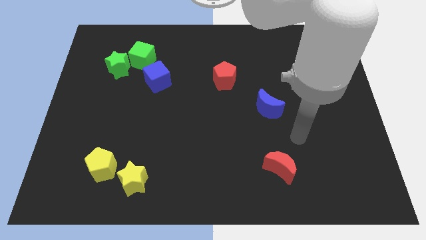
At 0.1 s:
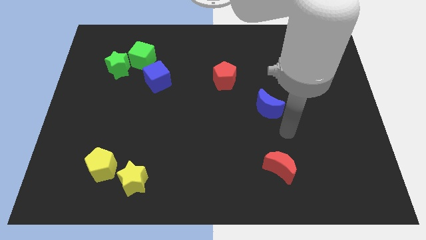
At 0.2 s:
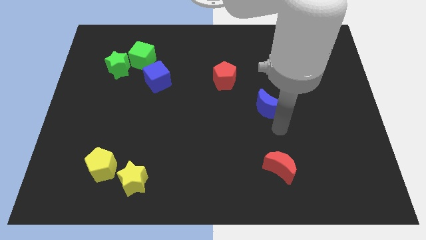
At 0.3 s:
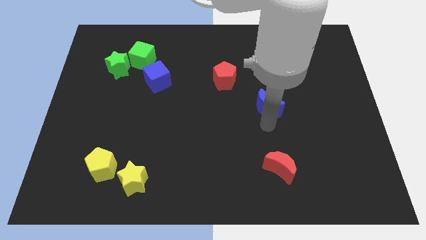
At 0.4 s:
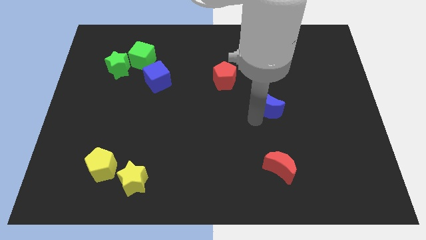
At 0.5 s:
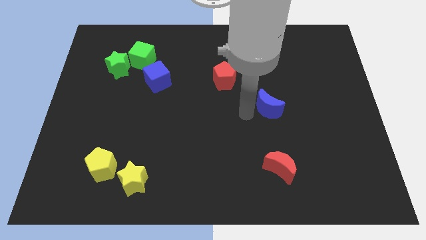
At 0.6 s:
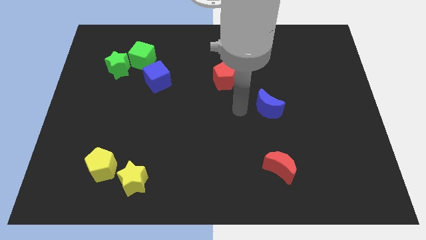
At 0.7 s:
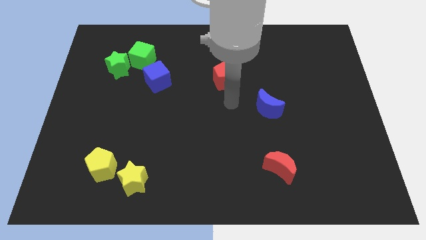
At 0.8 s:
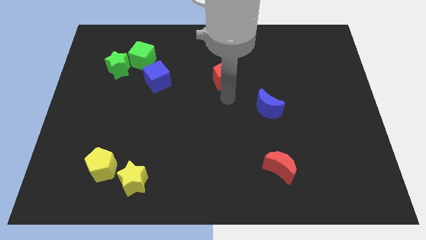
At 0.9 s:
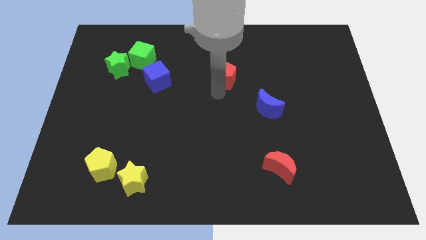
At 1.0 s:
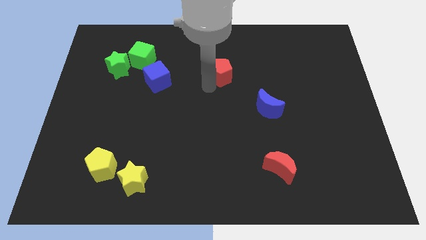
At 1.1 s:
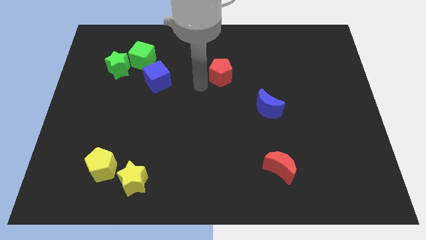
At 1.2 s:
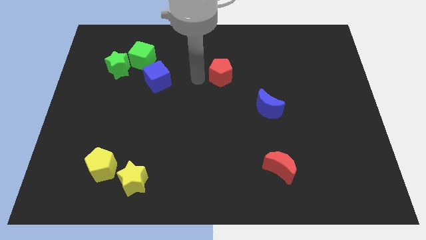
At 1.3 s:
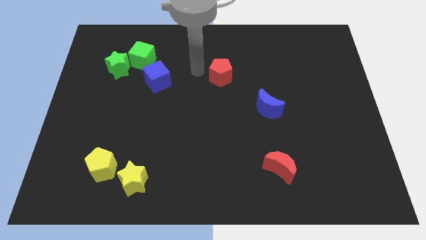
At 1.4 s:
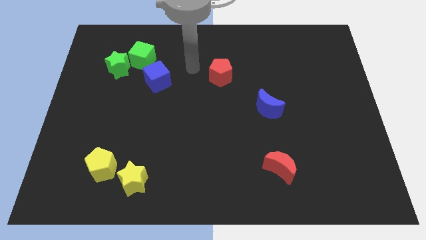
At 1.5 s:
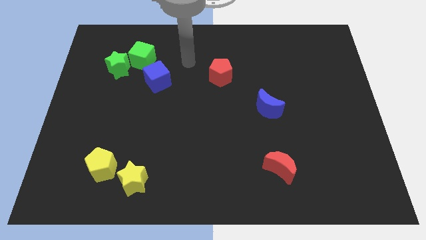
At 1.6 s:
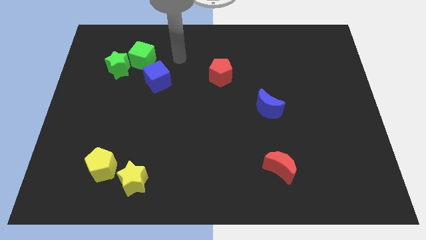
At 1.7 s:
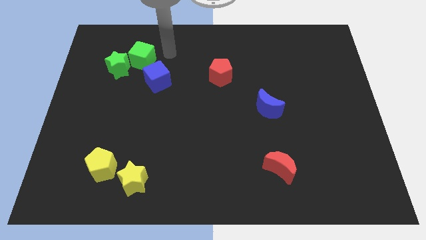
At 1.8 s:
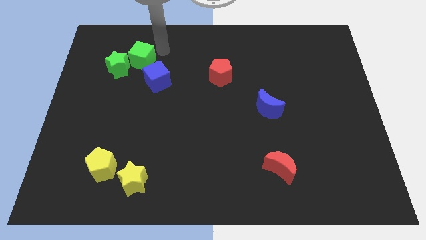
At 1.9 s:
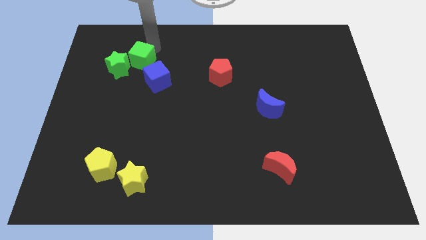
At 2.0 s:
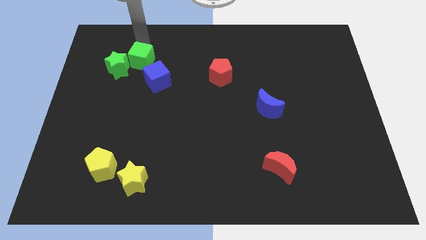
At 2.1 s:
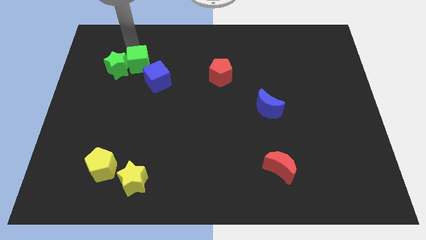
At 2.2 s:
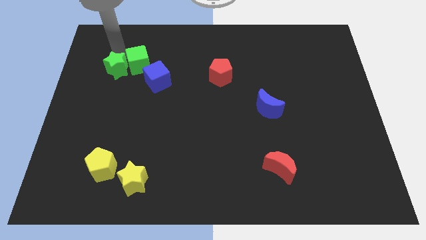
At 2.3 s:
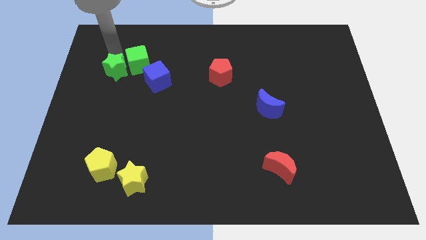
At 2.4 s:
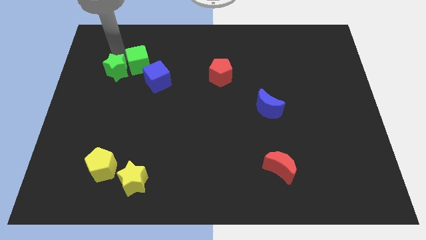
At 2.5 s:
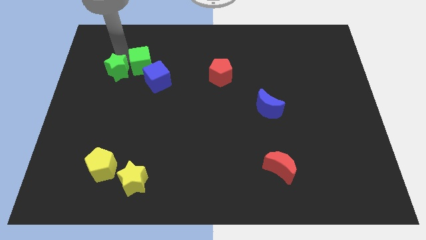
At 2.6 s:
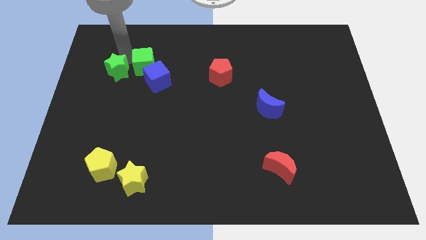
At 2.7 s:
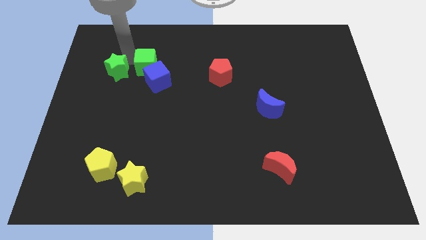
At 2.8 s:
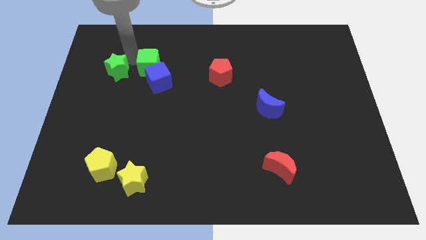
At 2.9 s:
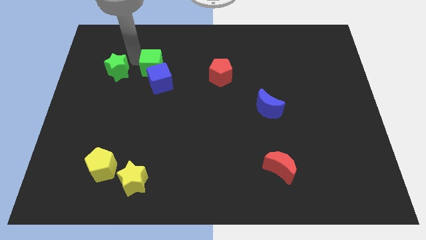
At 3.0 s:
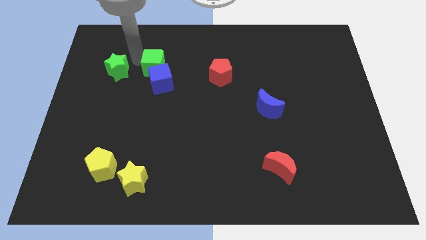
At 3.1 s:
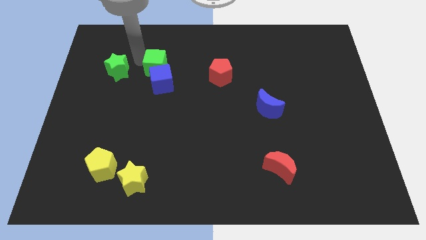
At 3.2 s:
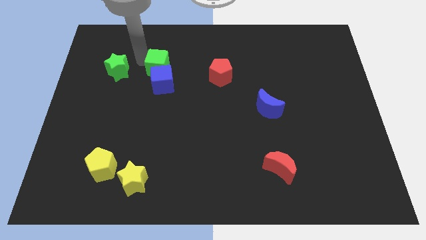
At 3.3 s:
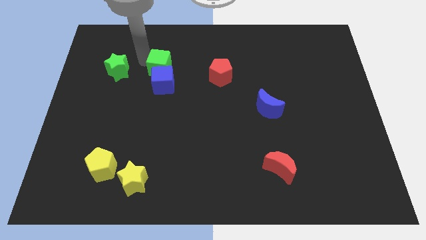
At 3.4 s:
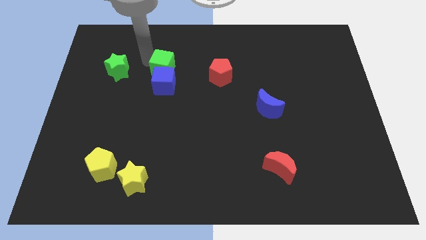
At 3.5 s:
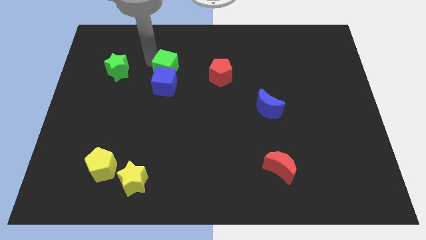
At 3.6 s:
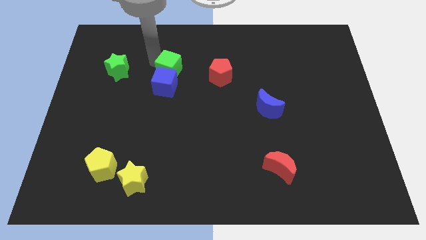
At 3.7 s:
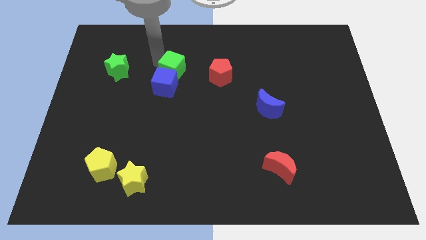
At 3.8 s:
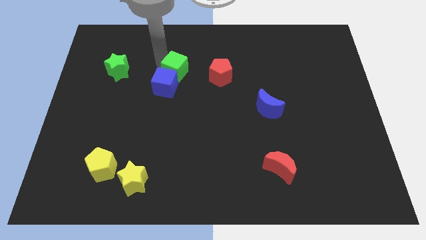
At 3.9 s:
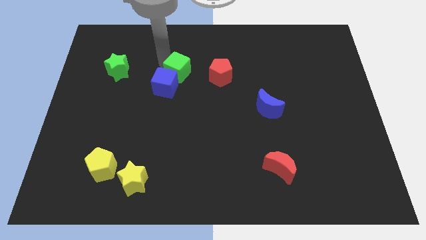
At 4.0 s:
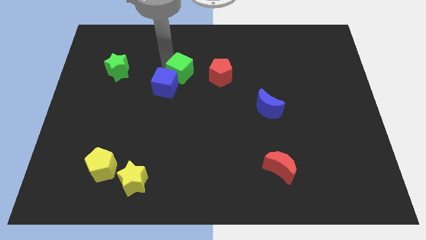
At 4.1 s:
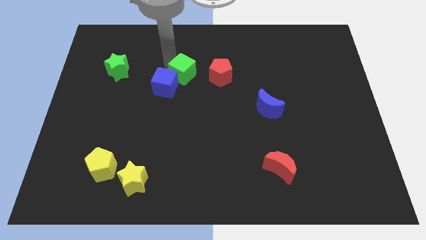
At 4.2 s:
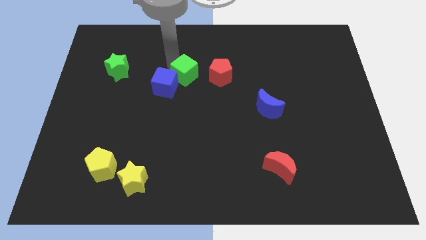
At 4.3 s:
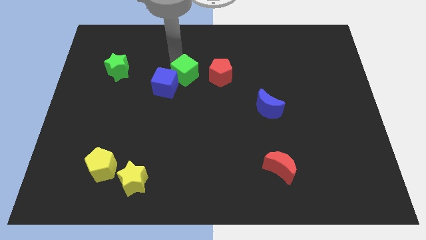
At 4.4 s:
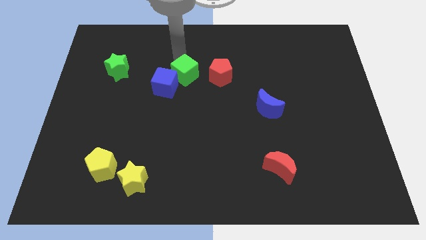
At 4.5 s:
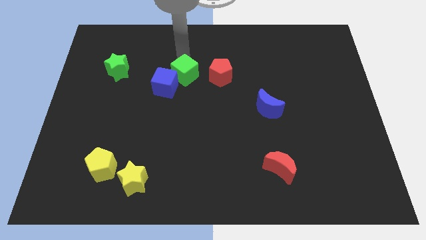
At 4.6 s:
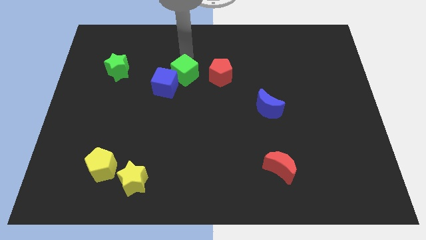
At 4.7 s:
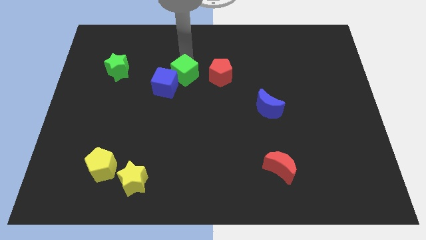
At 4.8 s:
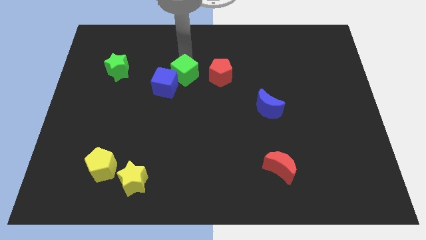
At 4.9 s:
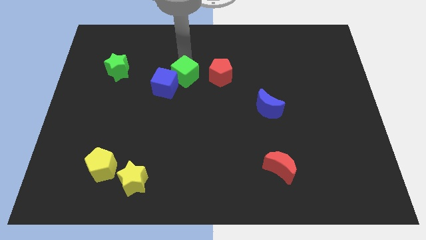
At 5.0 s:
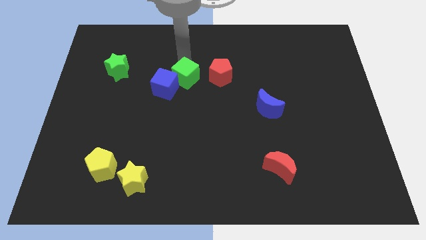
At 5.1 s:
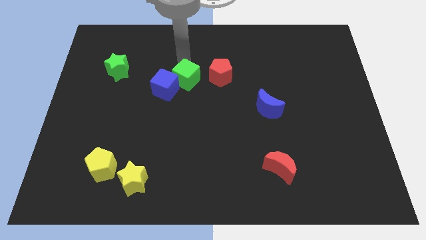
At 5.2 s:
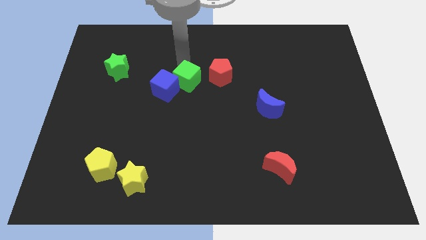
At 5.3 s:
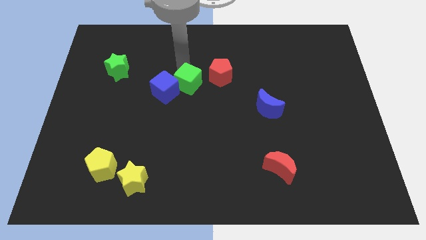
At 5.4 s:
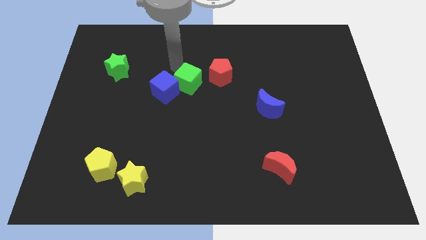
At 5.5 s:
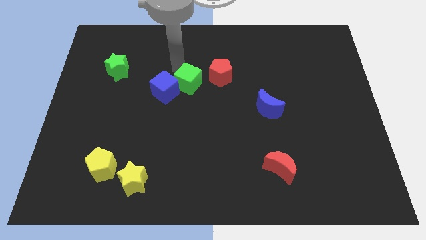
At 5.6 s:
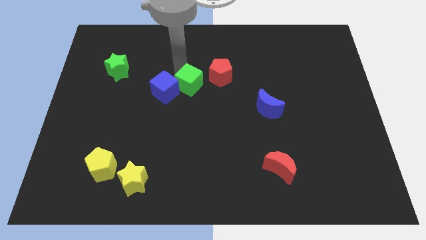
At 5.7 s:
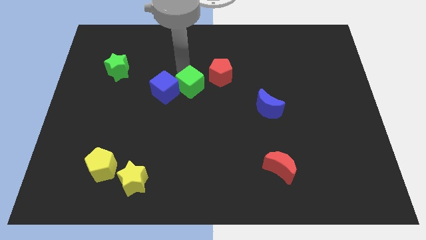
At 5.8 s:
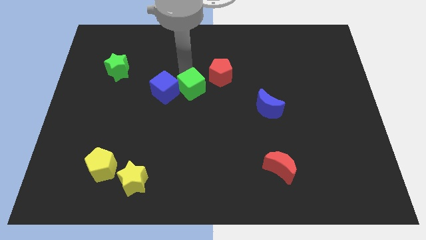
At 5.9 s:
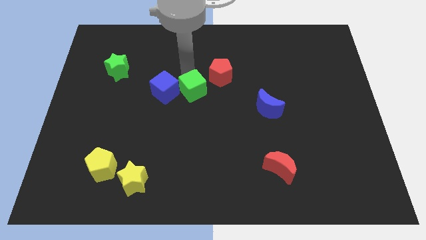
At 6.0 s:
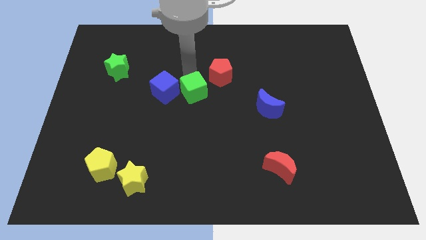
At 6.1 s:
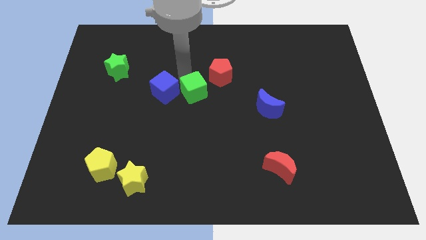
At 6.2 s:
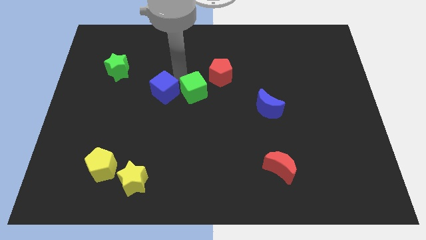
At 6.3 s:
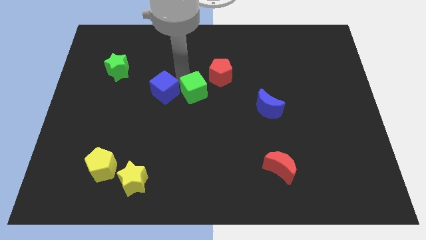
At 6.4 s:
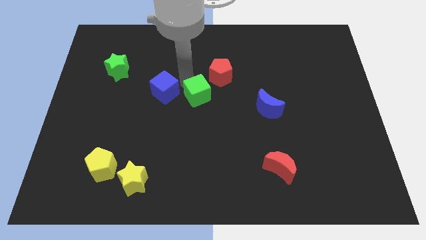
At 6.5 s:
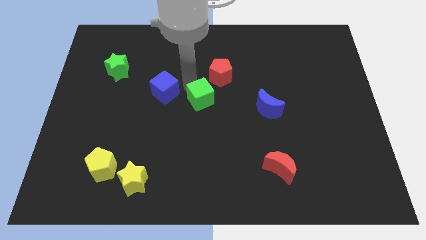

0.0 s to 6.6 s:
slide the green cube down and right

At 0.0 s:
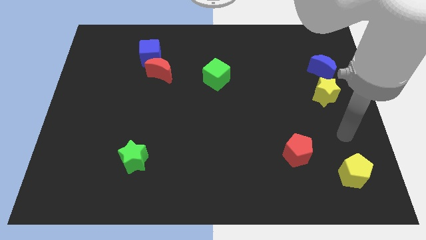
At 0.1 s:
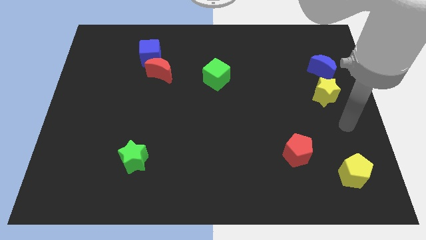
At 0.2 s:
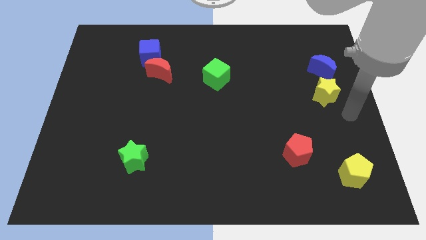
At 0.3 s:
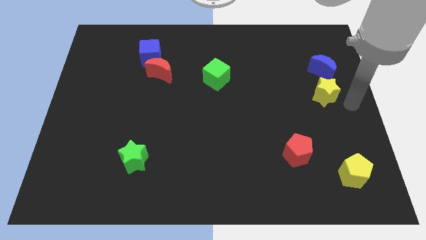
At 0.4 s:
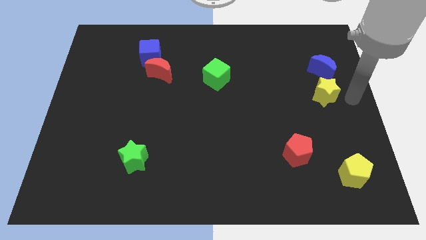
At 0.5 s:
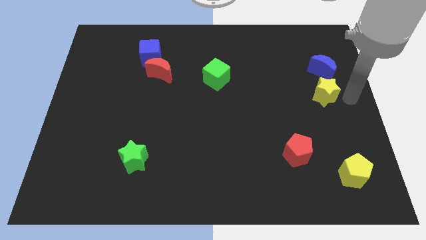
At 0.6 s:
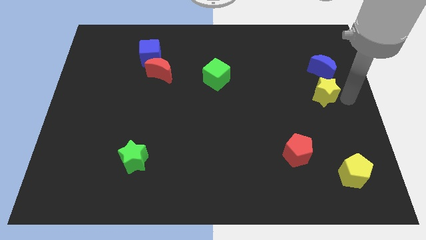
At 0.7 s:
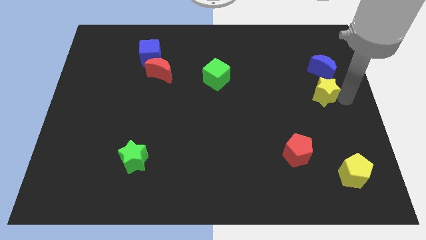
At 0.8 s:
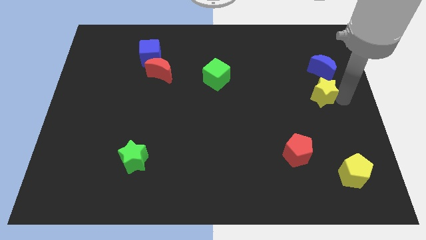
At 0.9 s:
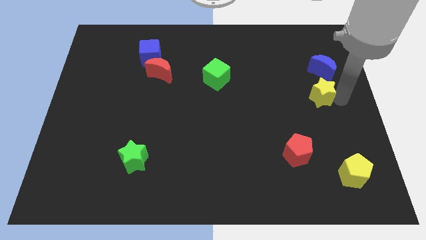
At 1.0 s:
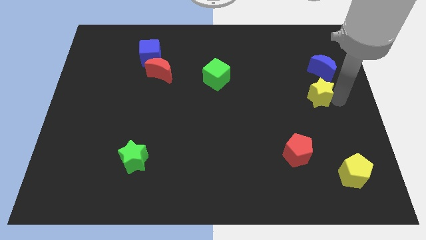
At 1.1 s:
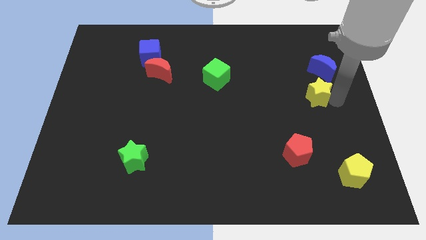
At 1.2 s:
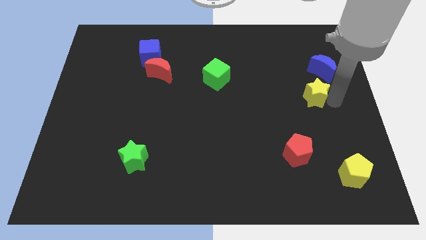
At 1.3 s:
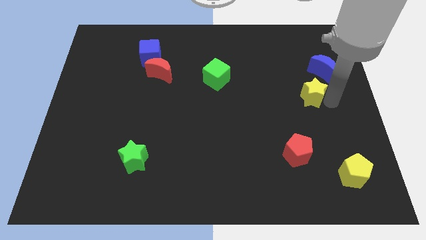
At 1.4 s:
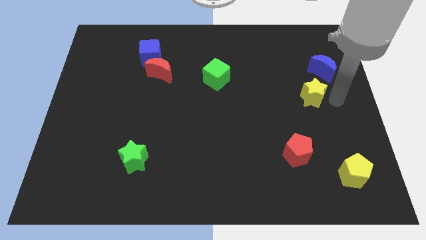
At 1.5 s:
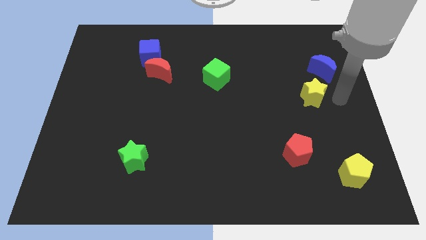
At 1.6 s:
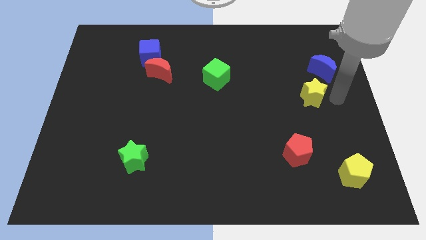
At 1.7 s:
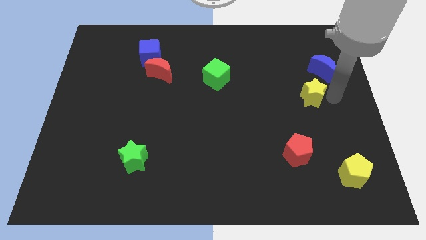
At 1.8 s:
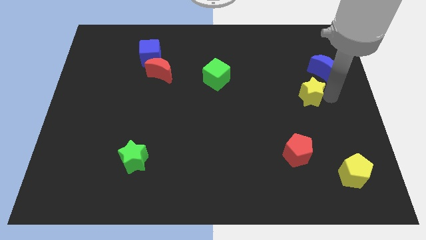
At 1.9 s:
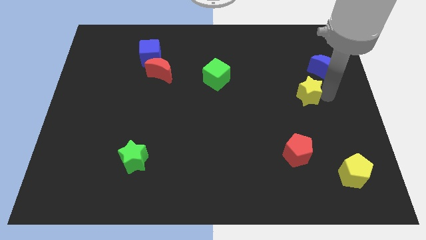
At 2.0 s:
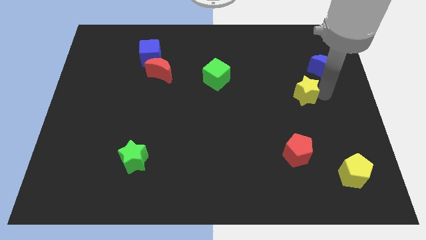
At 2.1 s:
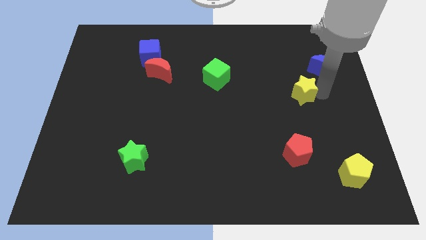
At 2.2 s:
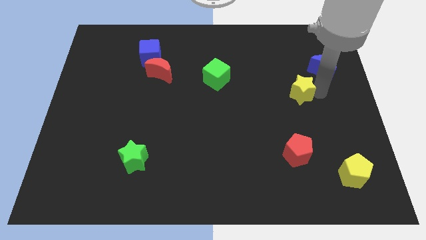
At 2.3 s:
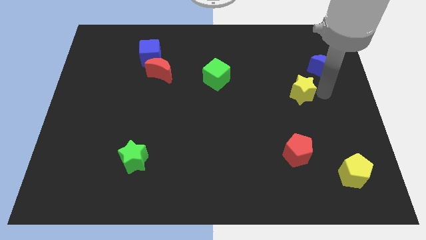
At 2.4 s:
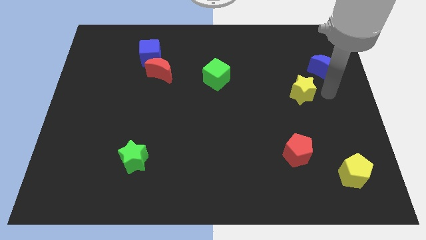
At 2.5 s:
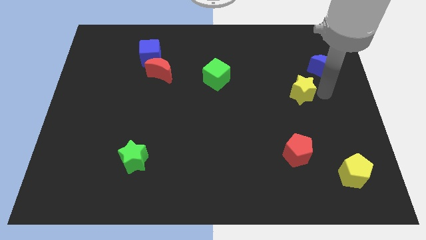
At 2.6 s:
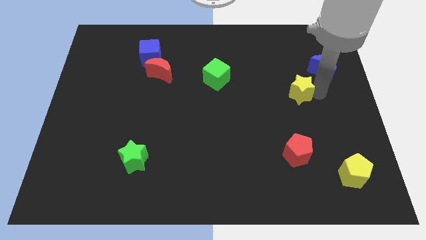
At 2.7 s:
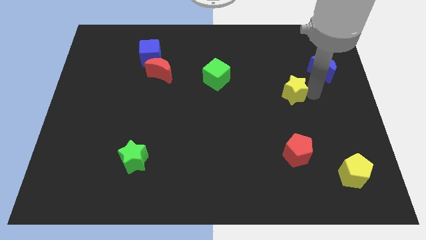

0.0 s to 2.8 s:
move the yellow star left slightly
